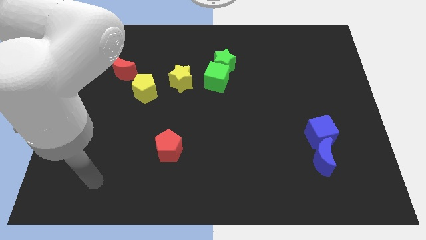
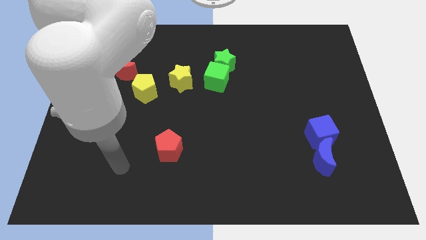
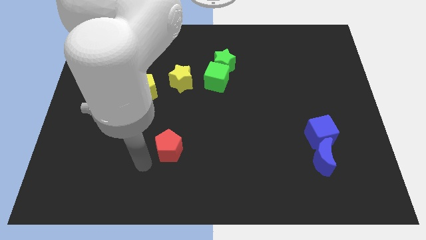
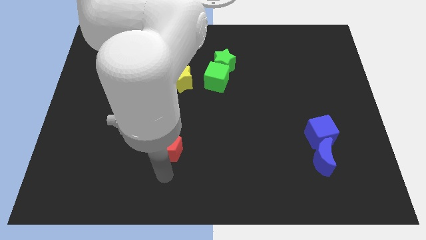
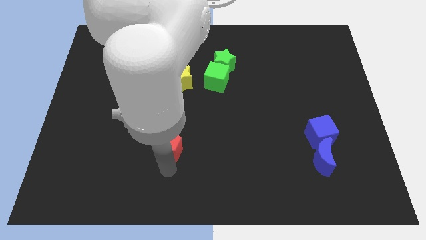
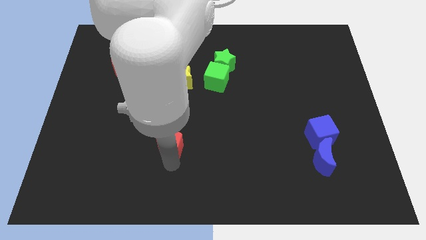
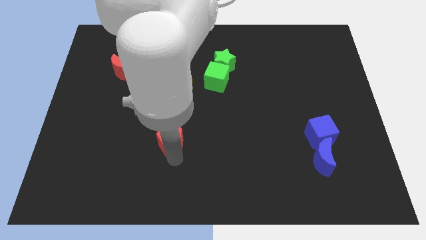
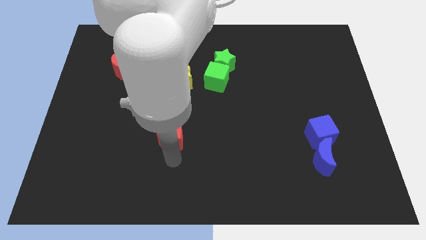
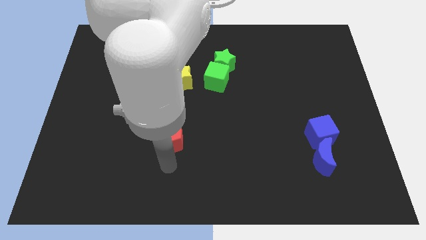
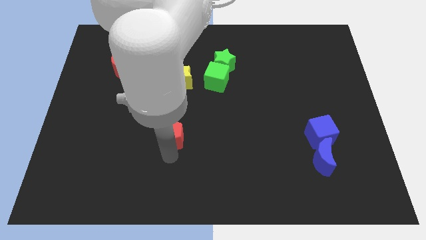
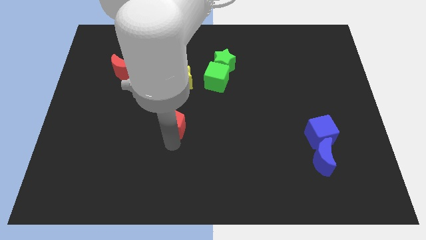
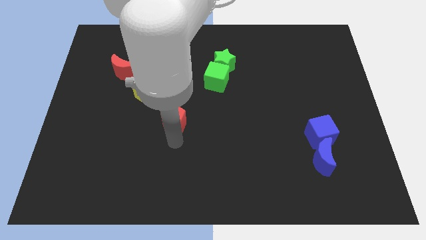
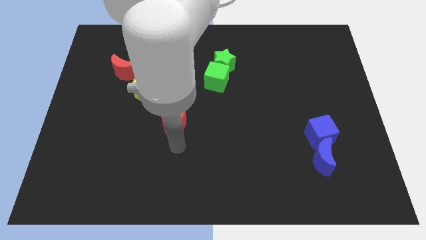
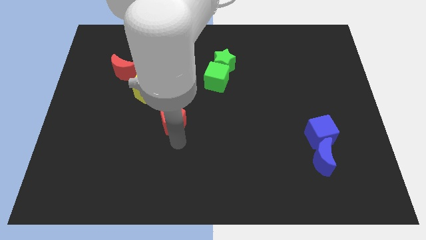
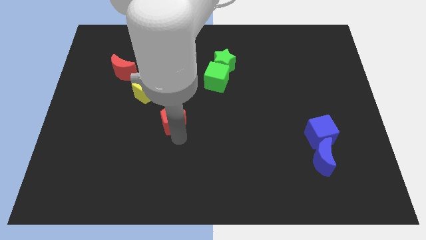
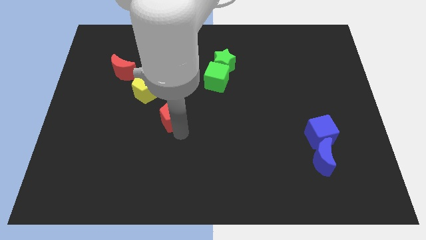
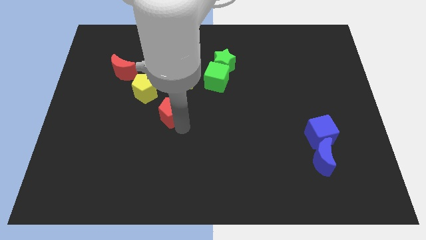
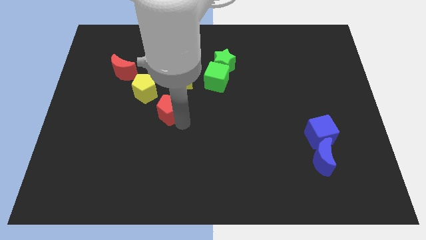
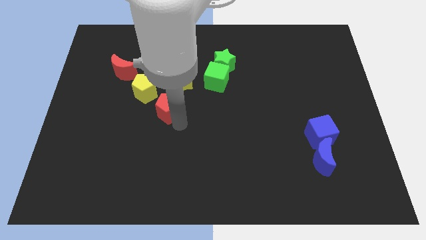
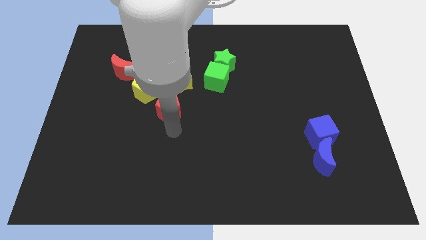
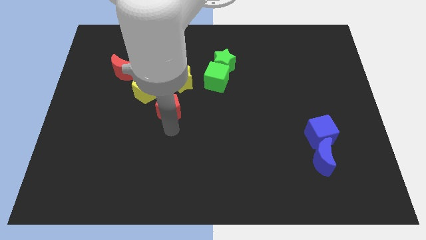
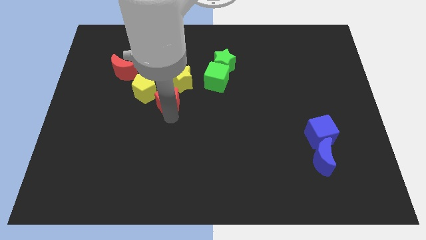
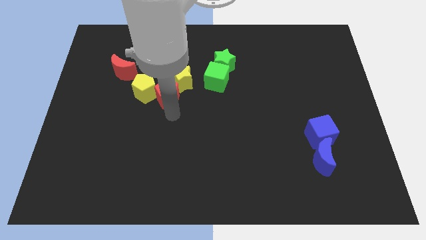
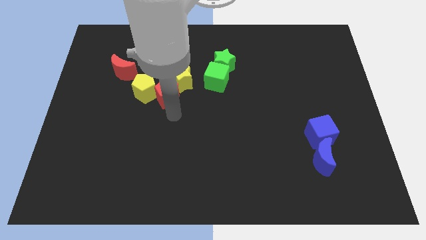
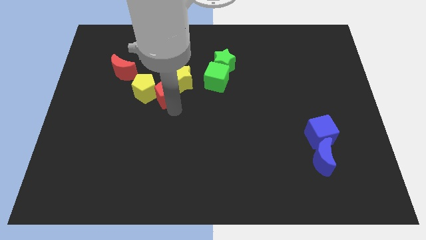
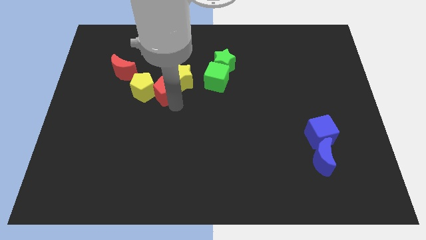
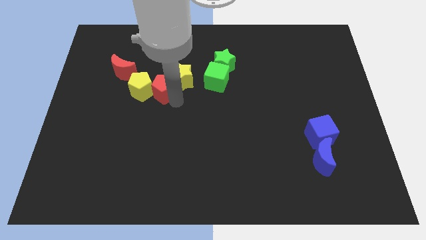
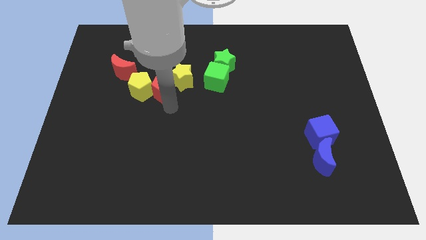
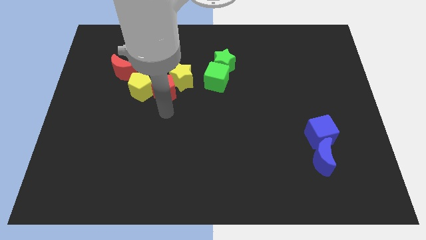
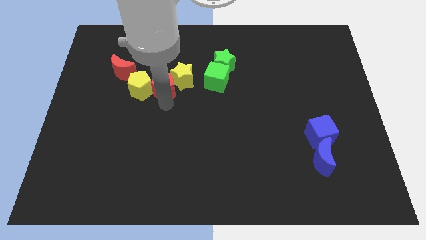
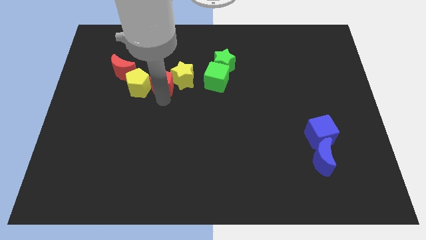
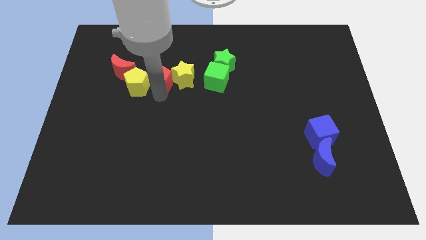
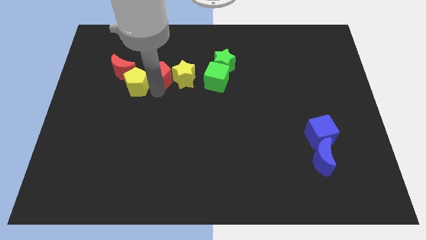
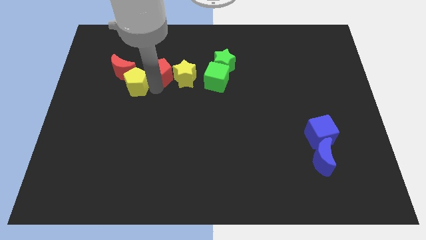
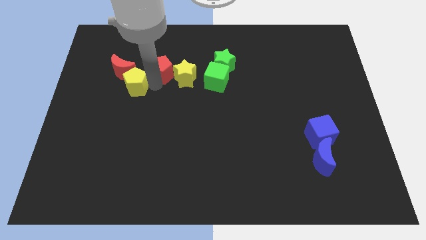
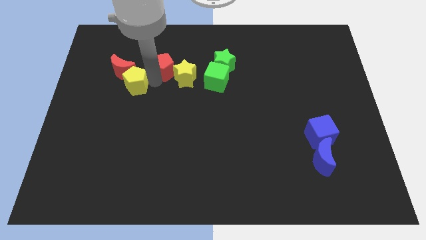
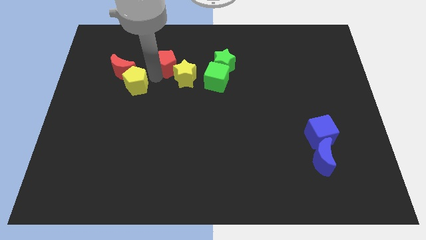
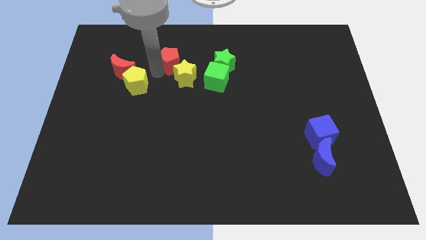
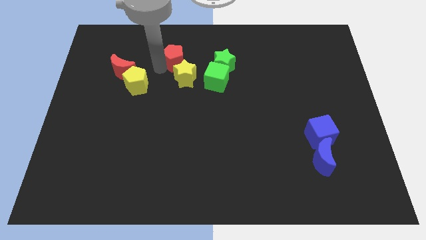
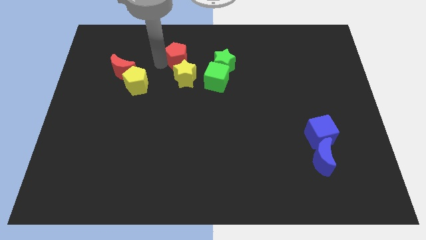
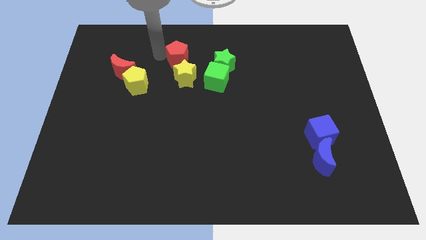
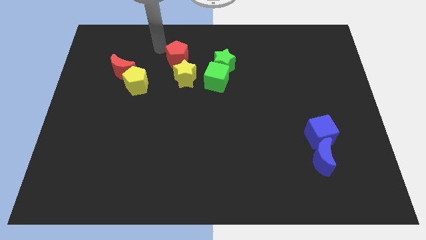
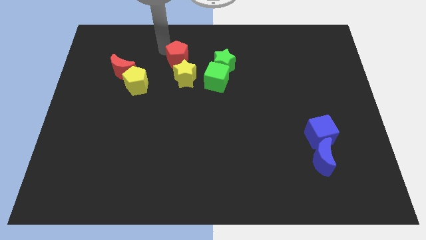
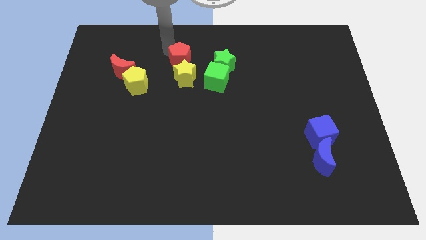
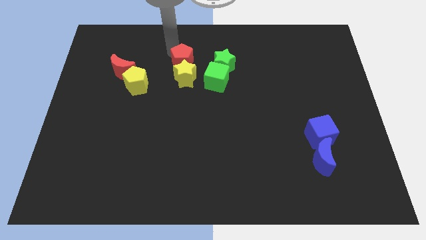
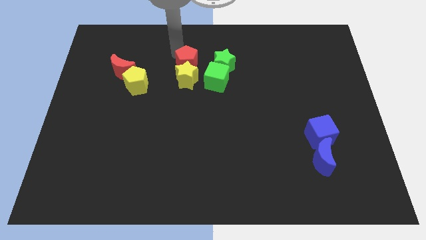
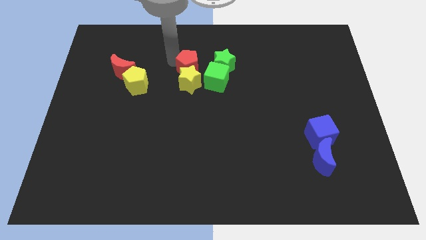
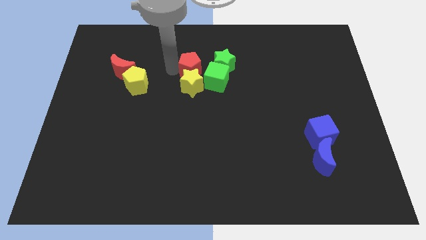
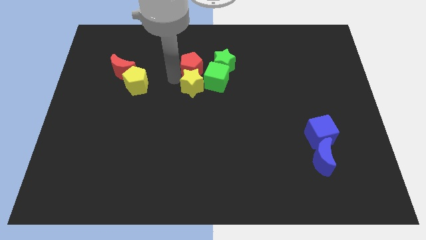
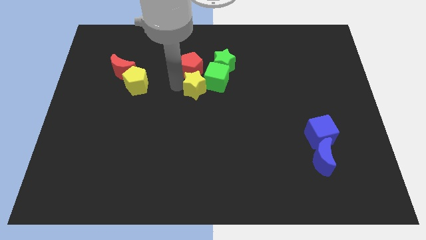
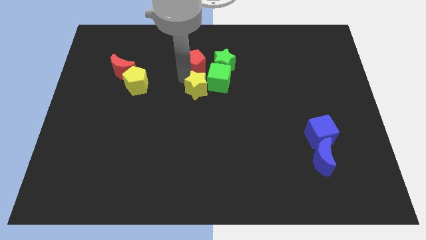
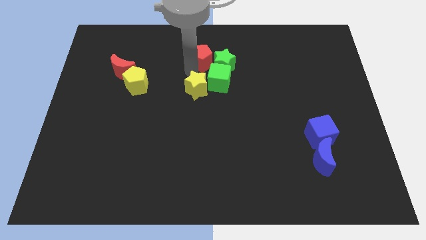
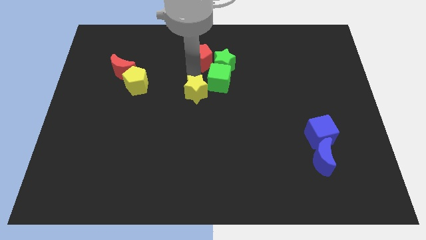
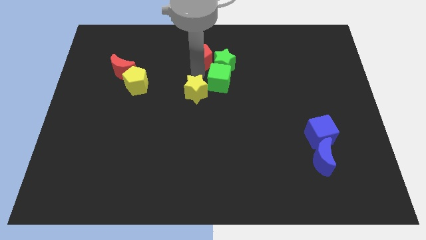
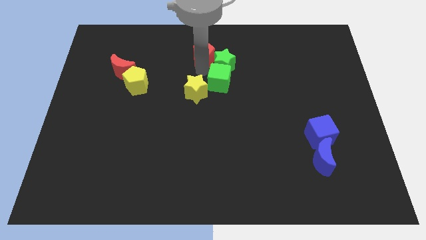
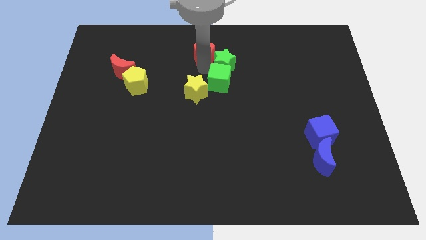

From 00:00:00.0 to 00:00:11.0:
slide the red pentagon to the top

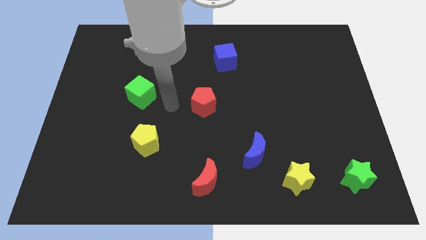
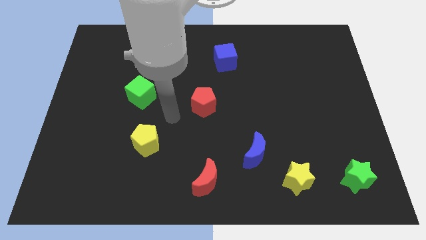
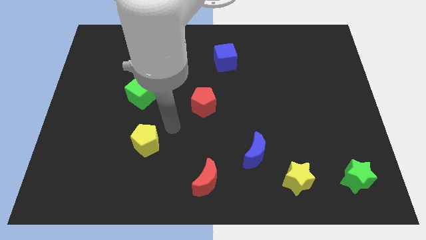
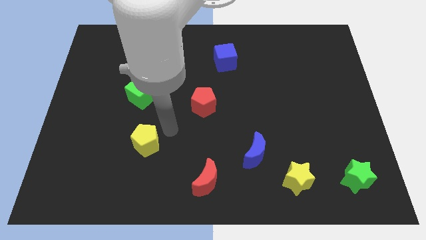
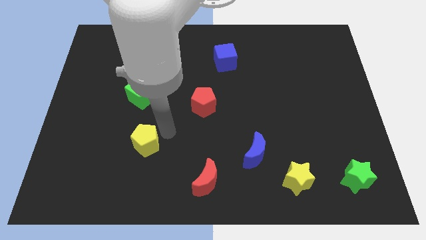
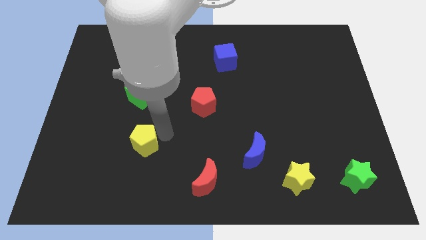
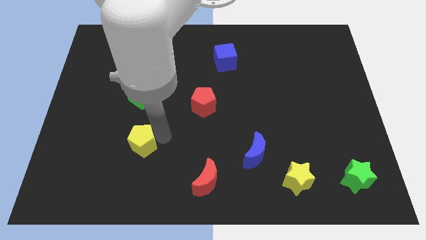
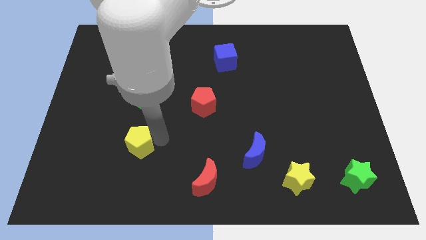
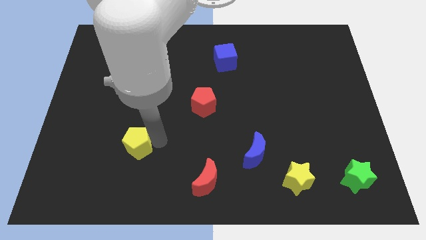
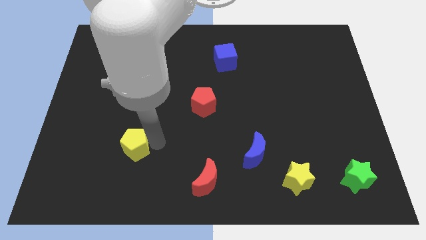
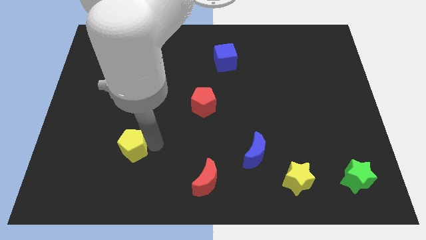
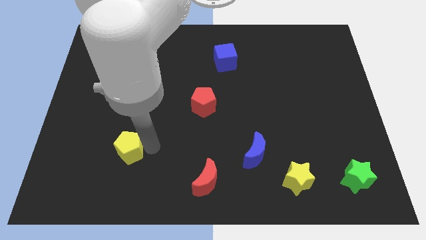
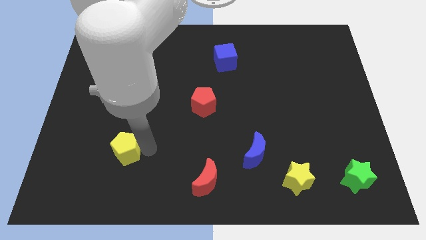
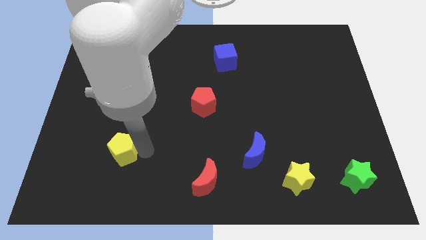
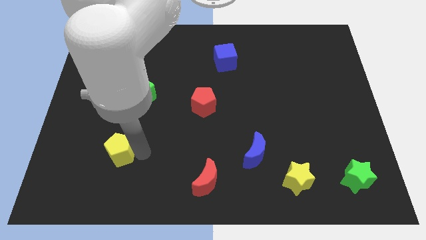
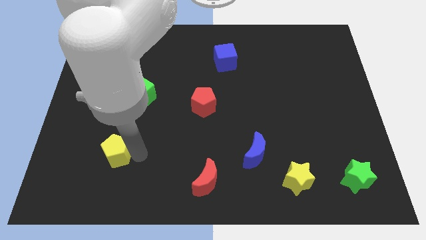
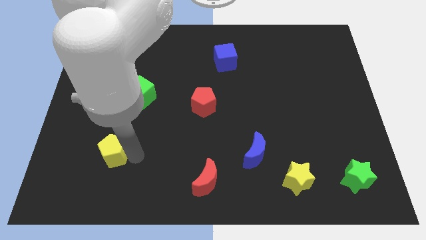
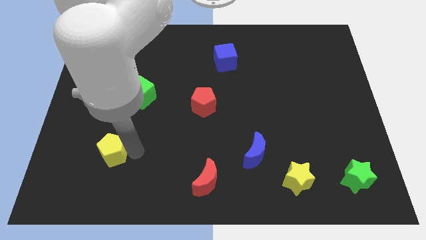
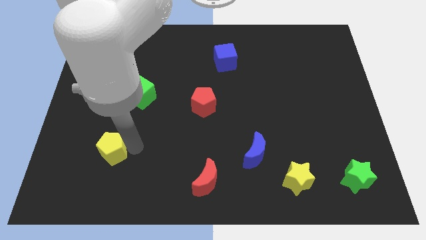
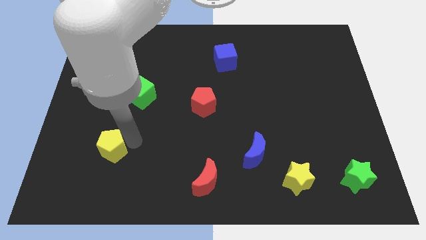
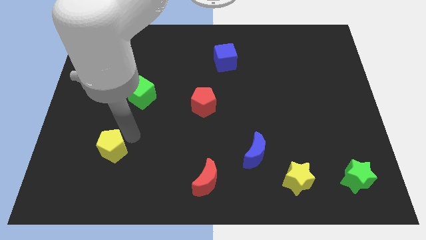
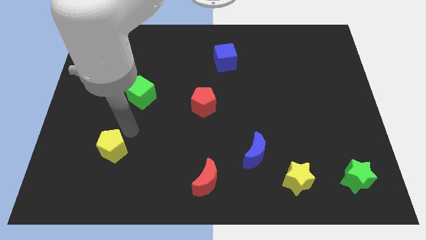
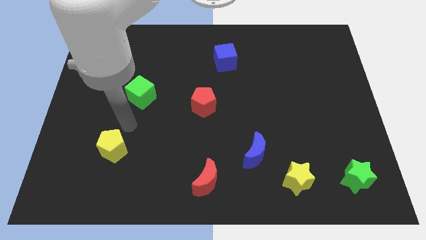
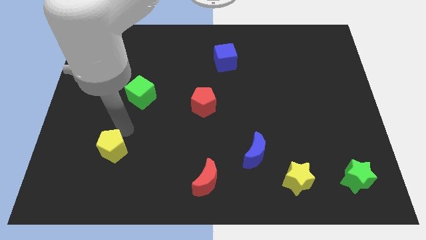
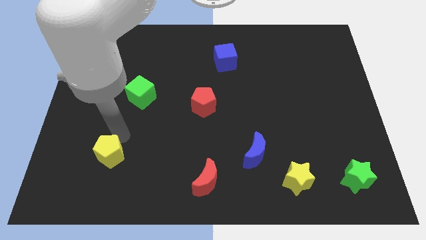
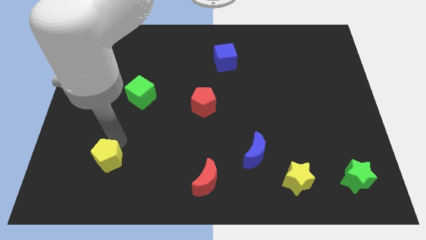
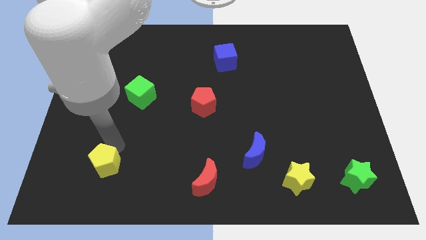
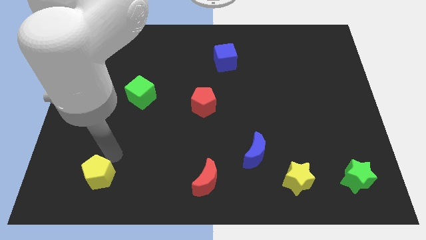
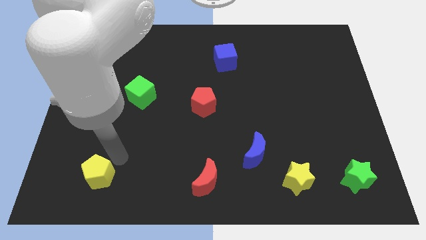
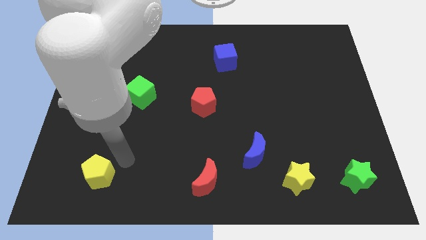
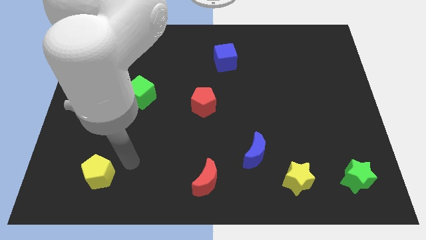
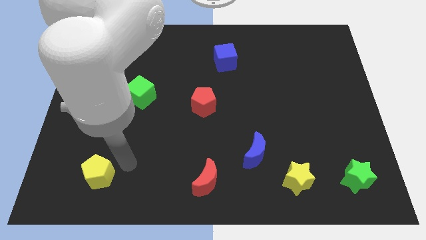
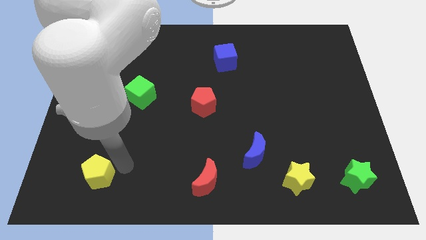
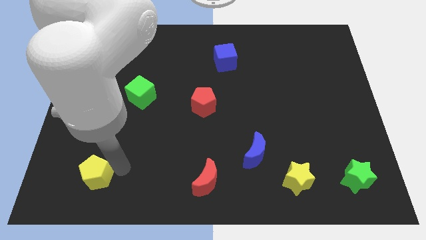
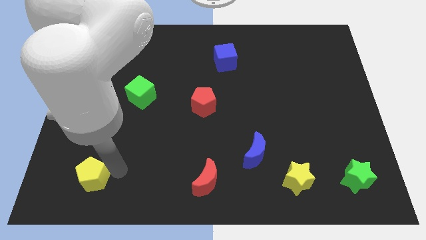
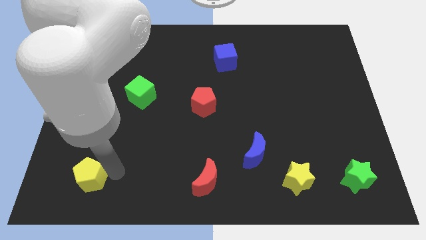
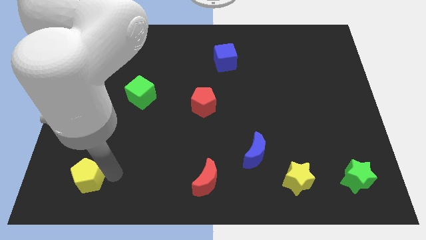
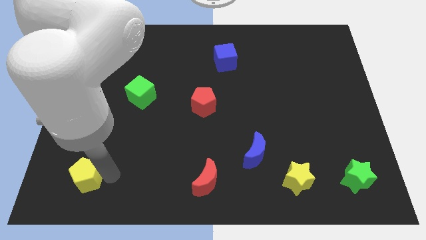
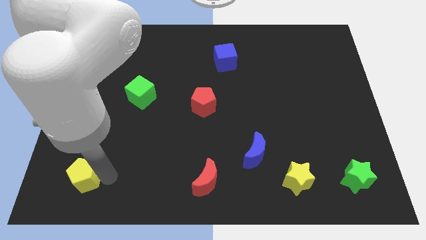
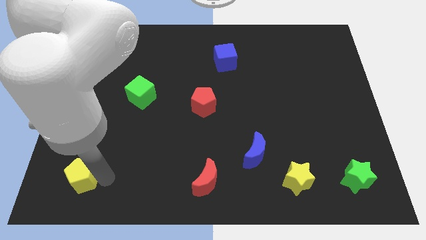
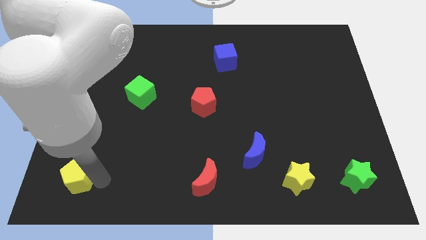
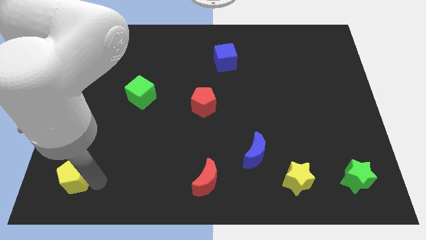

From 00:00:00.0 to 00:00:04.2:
push the yellow pentagon to the bottom left
